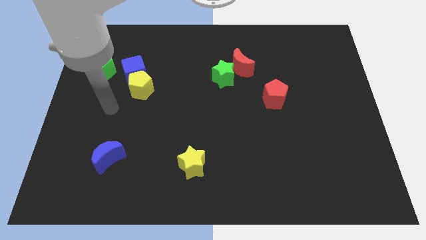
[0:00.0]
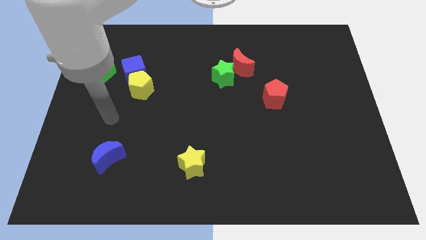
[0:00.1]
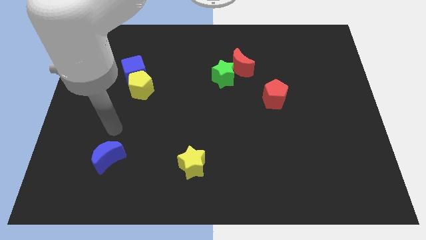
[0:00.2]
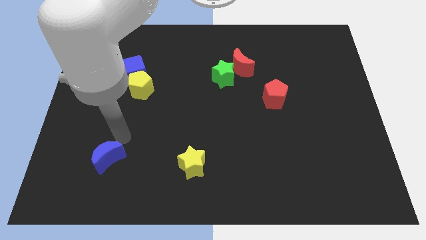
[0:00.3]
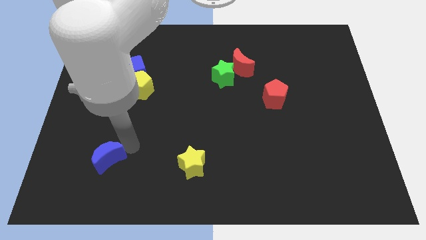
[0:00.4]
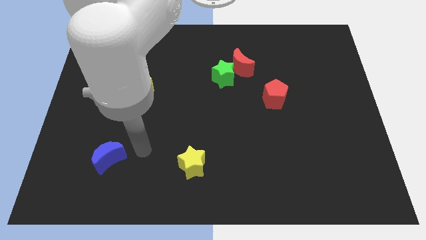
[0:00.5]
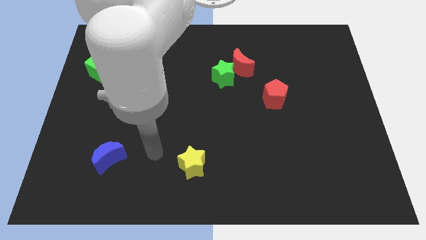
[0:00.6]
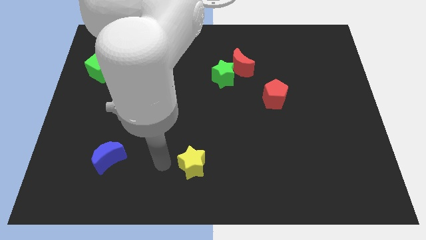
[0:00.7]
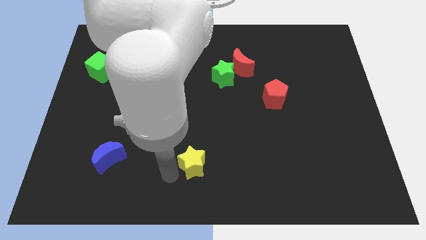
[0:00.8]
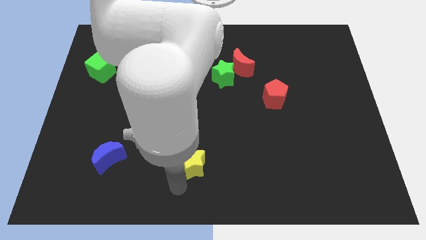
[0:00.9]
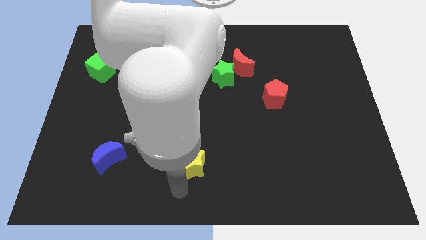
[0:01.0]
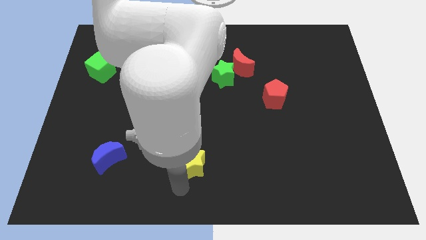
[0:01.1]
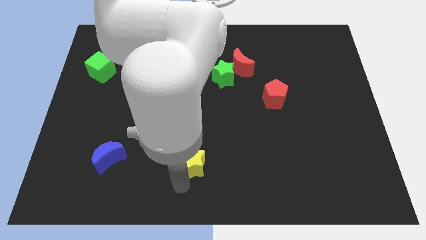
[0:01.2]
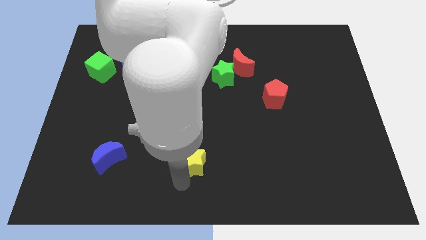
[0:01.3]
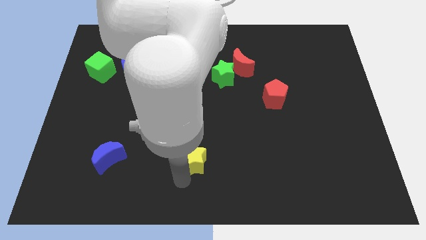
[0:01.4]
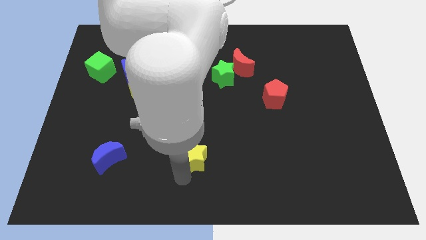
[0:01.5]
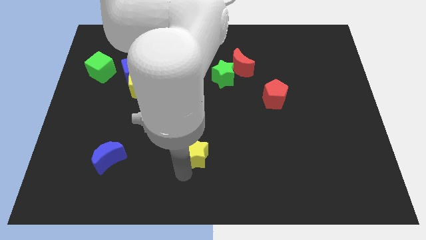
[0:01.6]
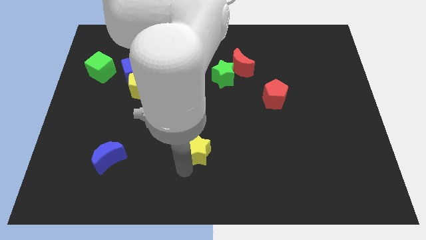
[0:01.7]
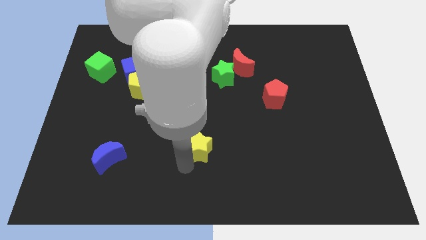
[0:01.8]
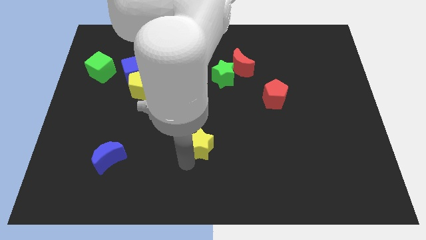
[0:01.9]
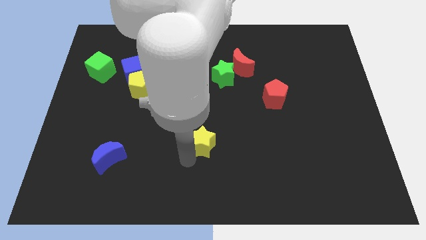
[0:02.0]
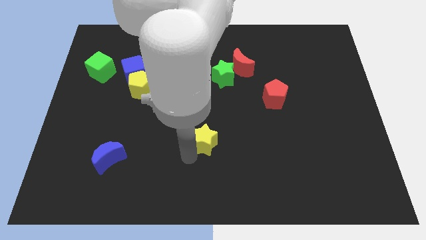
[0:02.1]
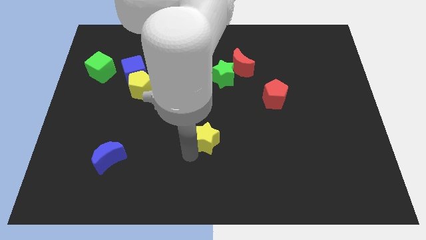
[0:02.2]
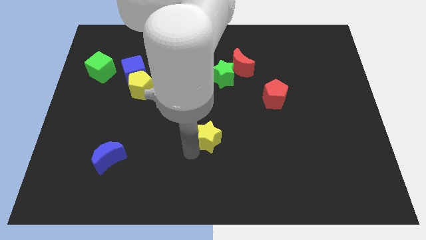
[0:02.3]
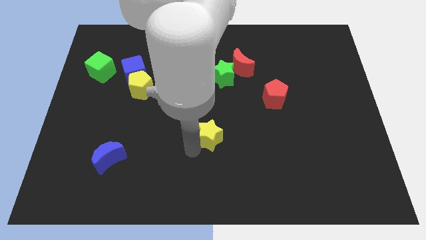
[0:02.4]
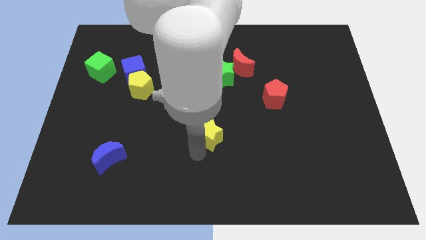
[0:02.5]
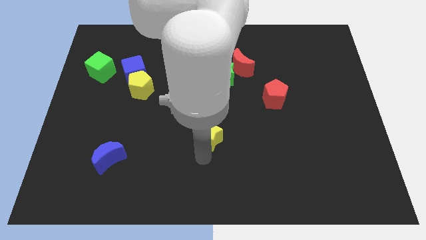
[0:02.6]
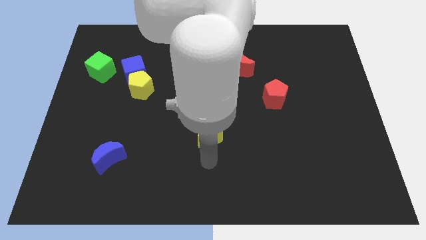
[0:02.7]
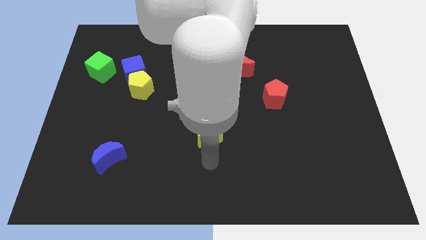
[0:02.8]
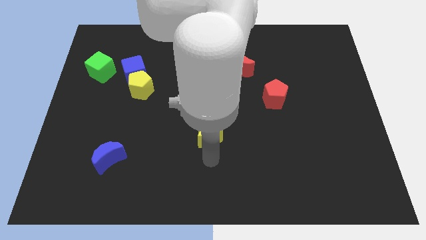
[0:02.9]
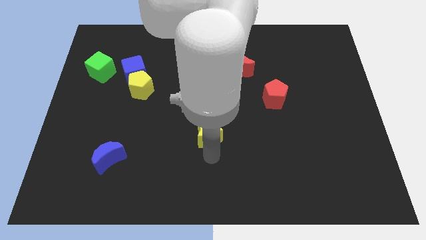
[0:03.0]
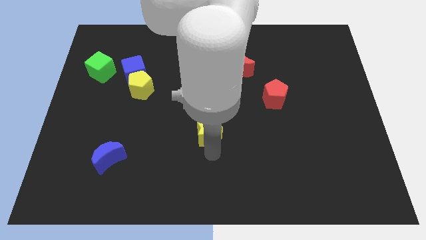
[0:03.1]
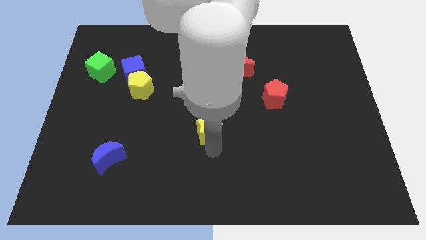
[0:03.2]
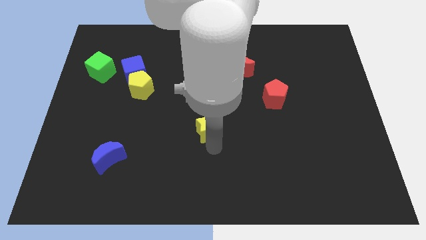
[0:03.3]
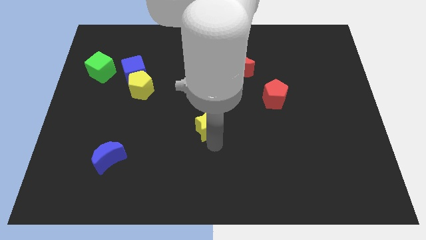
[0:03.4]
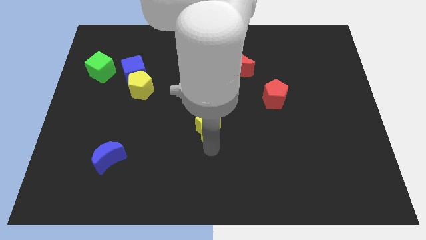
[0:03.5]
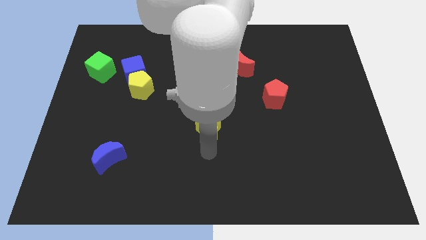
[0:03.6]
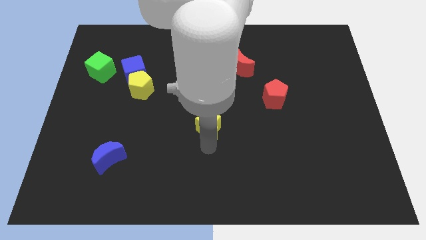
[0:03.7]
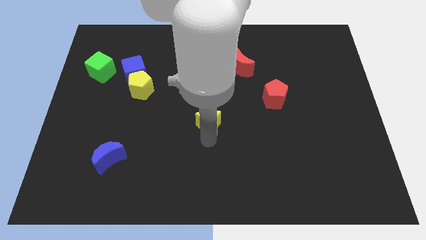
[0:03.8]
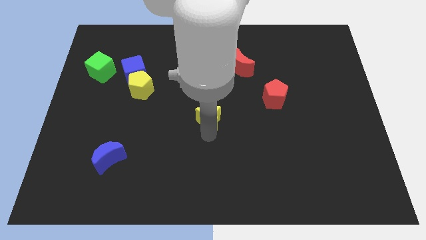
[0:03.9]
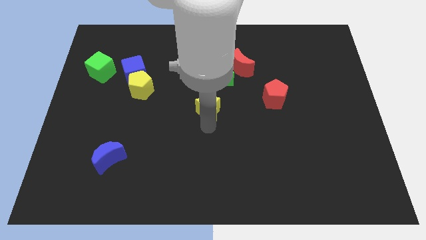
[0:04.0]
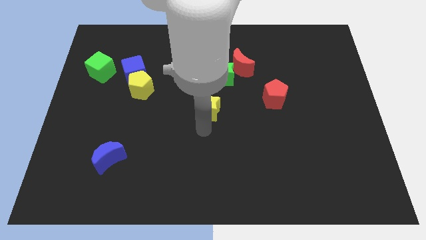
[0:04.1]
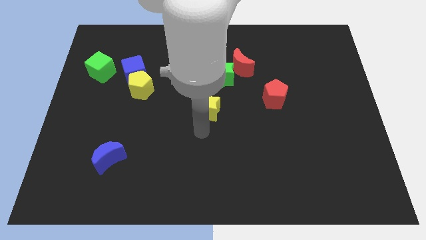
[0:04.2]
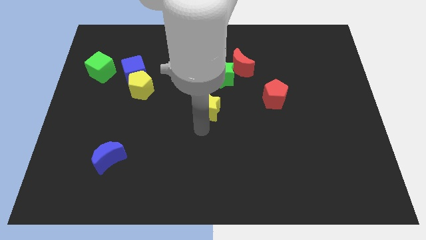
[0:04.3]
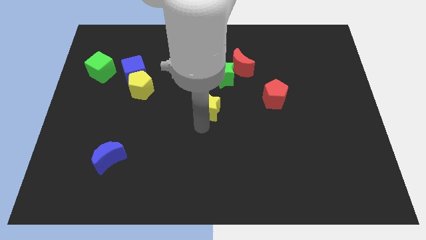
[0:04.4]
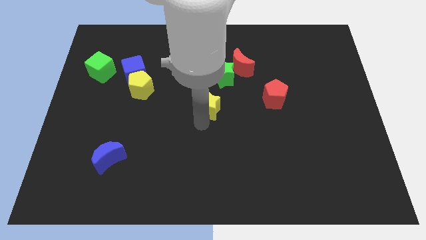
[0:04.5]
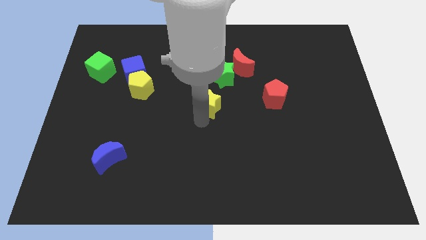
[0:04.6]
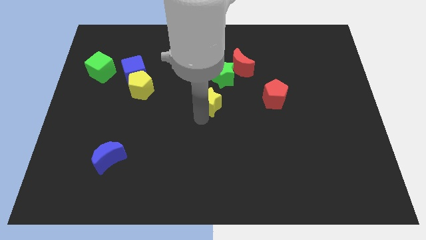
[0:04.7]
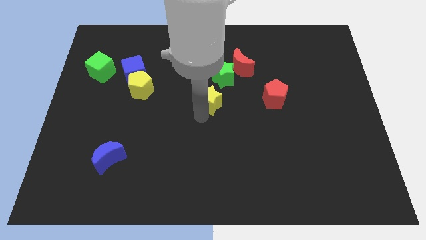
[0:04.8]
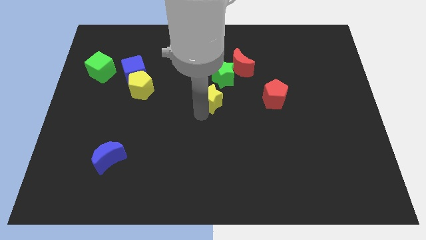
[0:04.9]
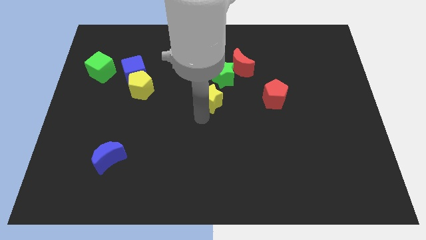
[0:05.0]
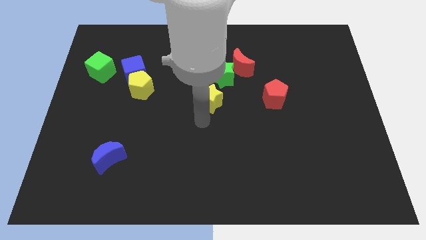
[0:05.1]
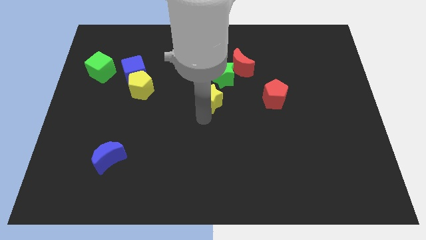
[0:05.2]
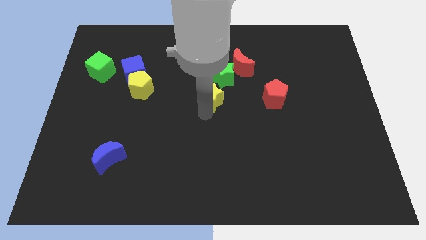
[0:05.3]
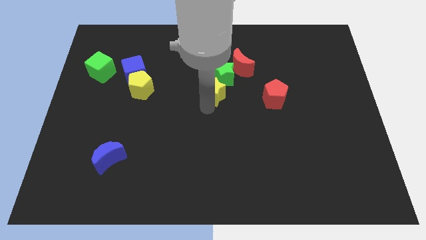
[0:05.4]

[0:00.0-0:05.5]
slide the yellow star next to the green star

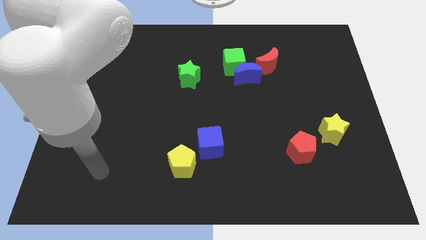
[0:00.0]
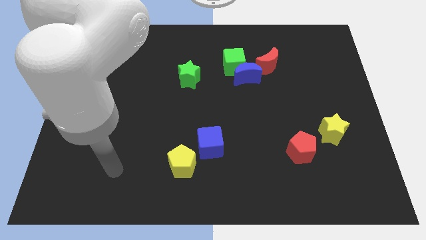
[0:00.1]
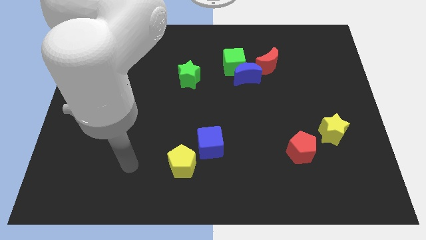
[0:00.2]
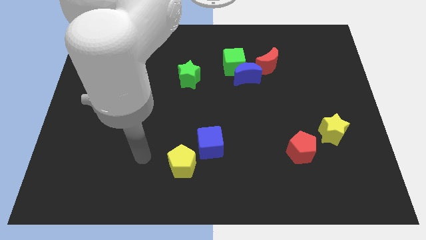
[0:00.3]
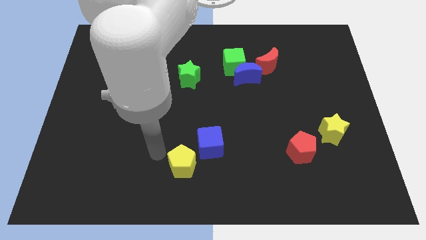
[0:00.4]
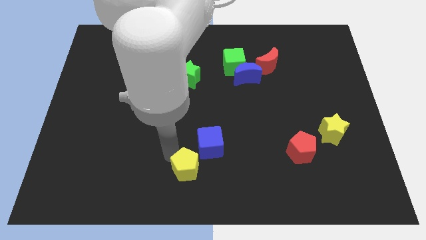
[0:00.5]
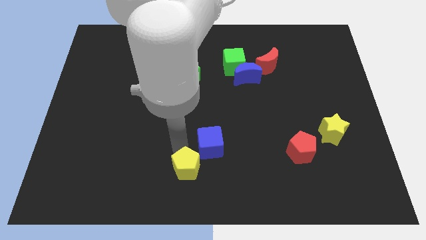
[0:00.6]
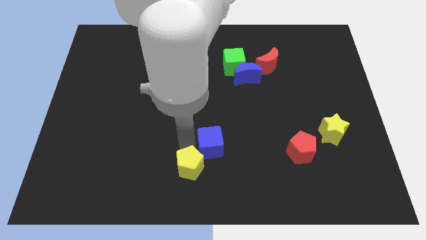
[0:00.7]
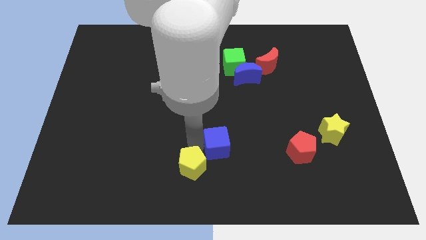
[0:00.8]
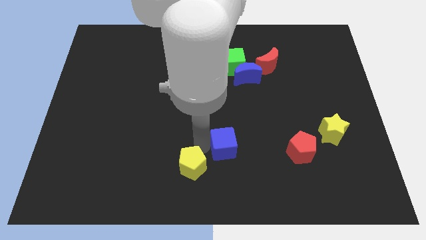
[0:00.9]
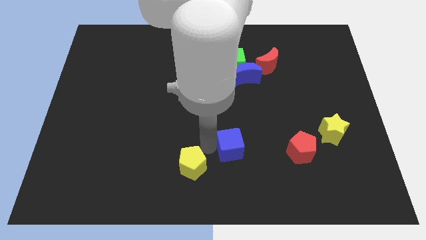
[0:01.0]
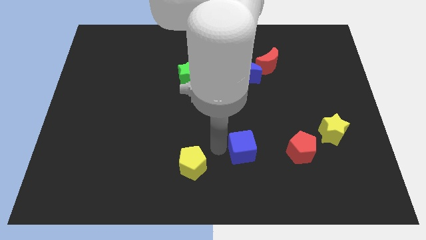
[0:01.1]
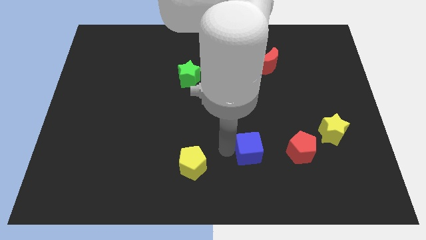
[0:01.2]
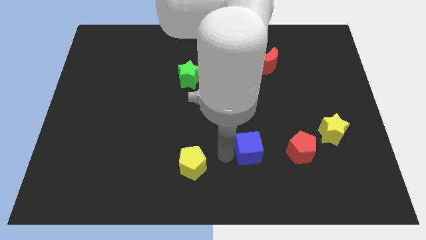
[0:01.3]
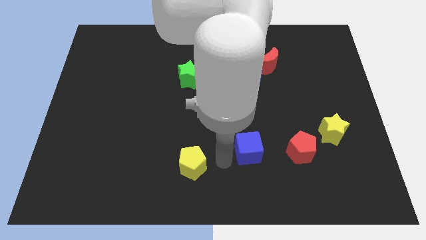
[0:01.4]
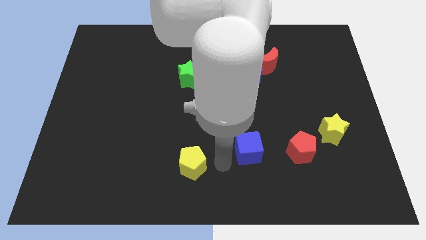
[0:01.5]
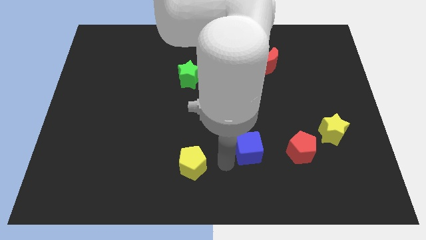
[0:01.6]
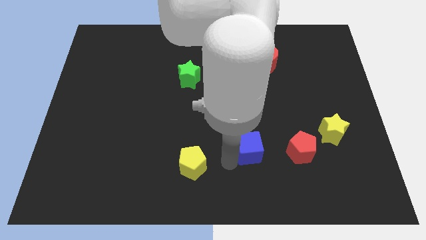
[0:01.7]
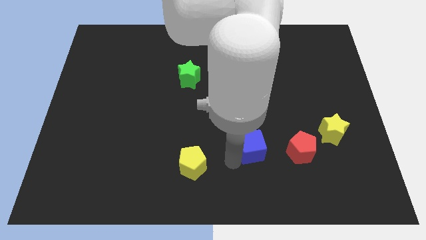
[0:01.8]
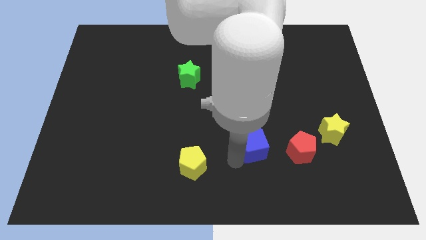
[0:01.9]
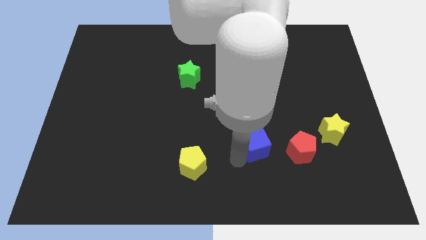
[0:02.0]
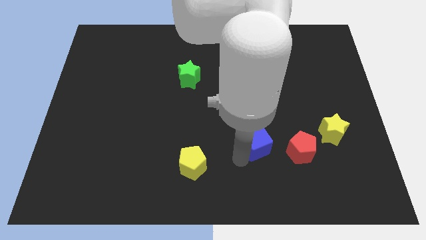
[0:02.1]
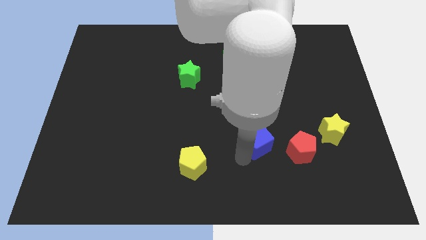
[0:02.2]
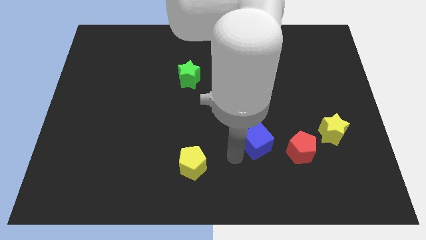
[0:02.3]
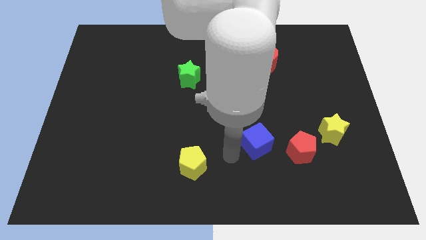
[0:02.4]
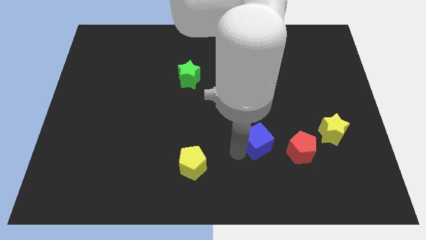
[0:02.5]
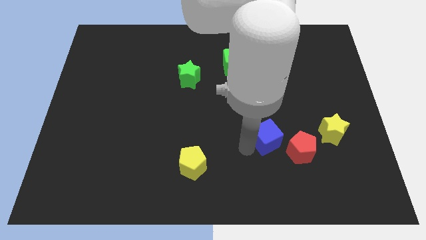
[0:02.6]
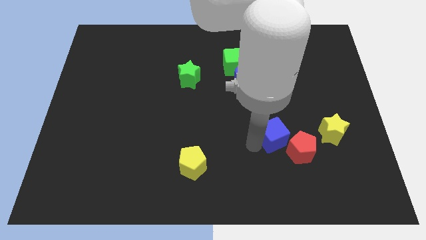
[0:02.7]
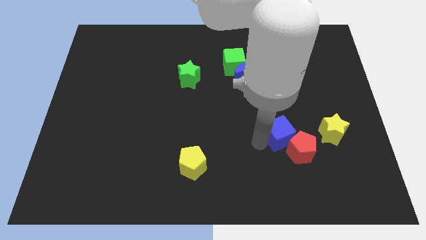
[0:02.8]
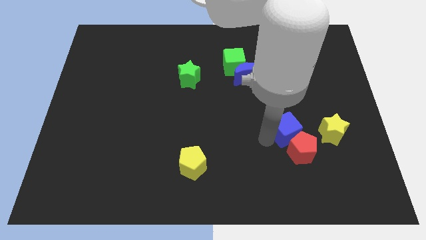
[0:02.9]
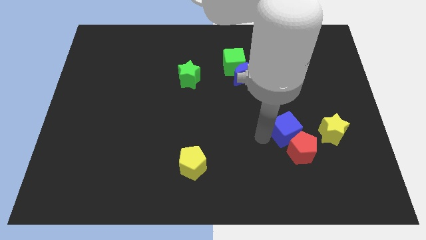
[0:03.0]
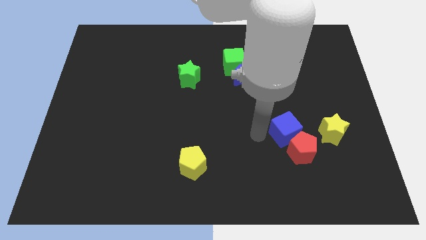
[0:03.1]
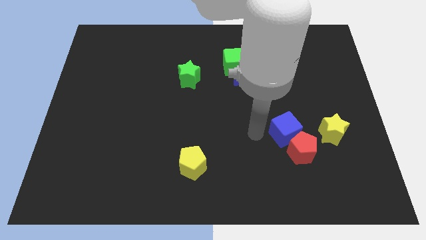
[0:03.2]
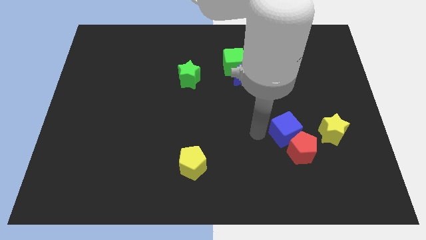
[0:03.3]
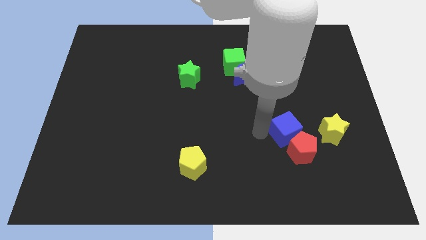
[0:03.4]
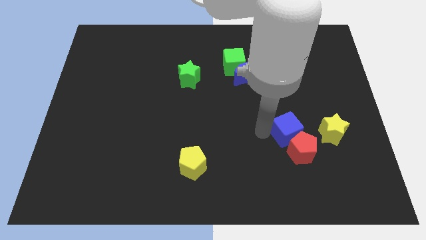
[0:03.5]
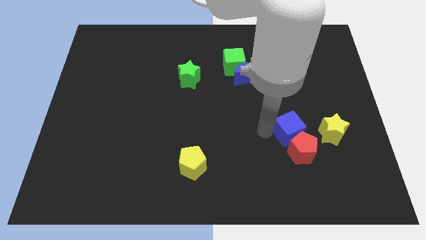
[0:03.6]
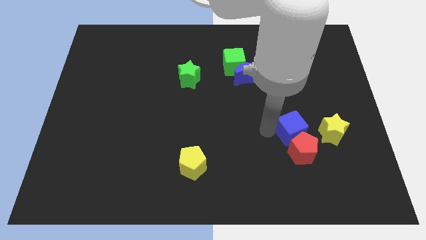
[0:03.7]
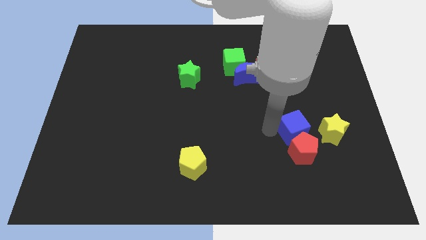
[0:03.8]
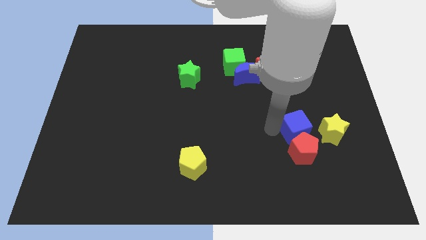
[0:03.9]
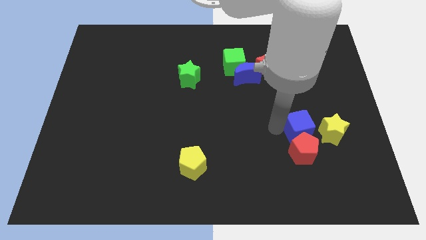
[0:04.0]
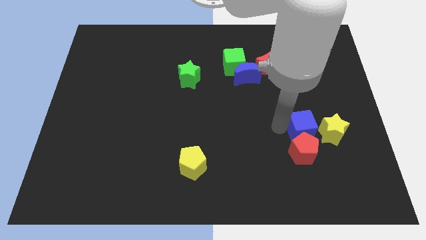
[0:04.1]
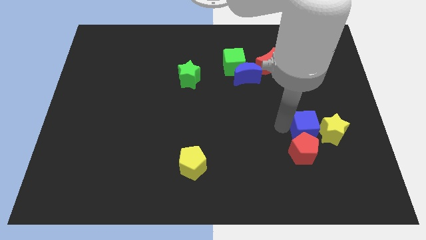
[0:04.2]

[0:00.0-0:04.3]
put the blue cube to the yellow star
